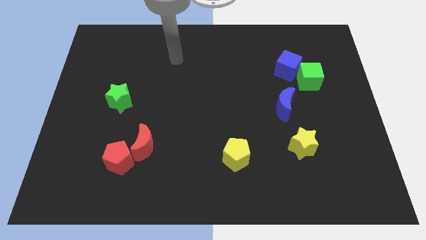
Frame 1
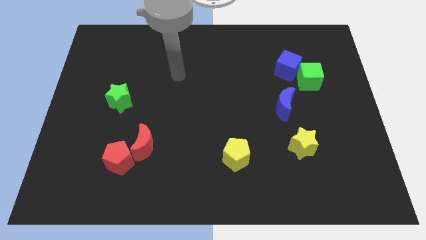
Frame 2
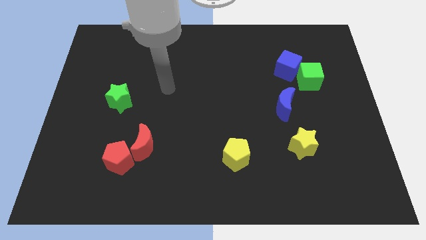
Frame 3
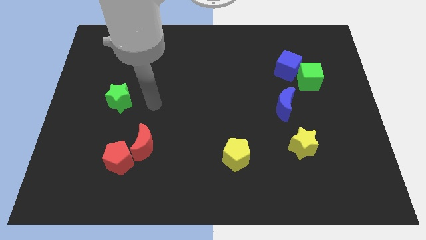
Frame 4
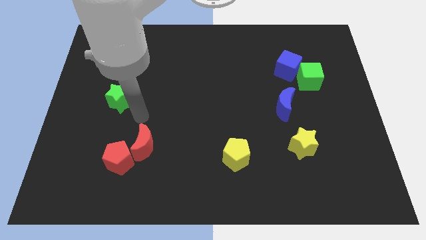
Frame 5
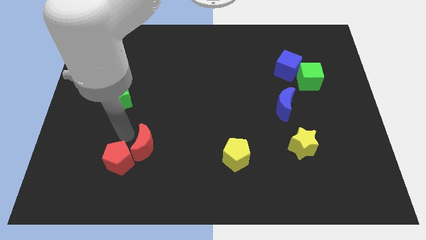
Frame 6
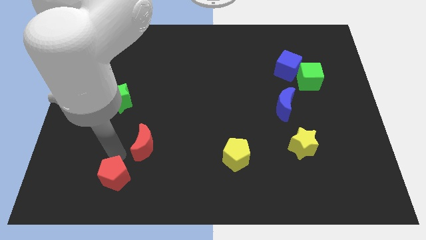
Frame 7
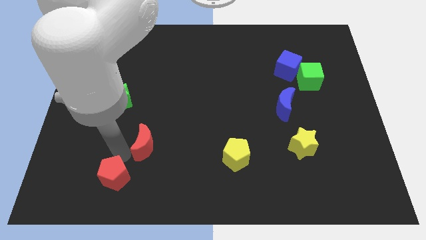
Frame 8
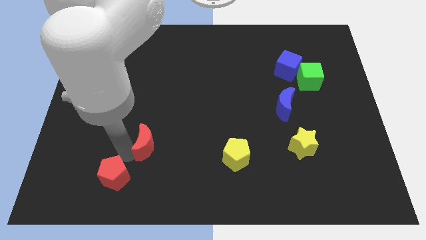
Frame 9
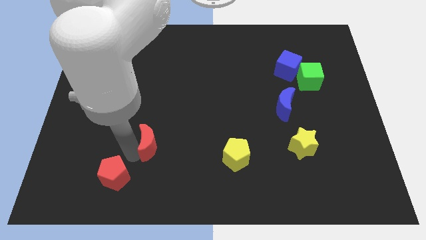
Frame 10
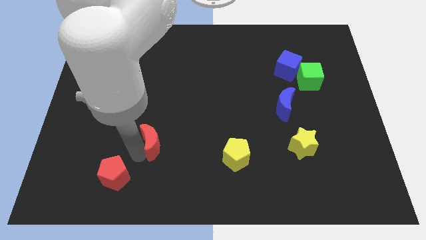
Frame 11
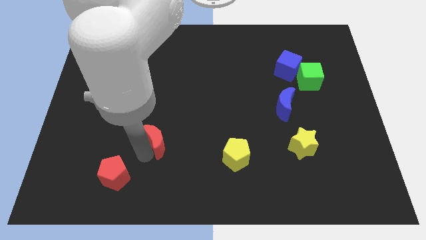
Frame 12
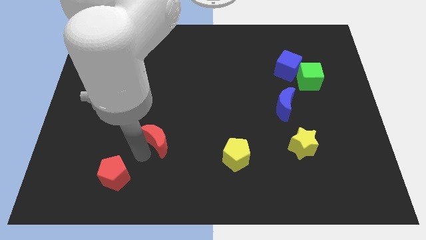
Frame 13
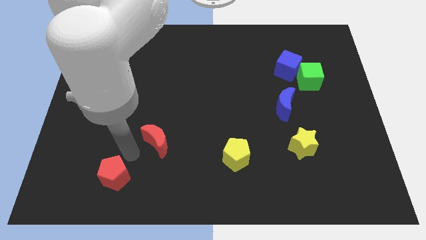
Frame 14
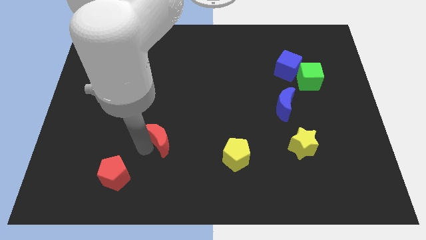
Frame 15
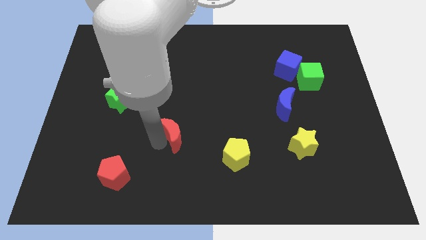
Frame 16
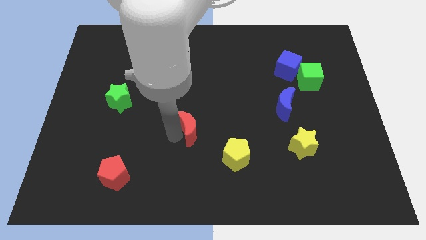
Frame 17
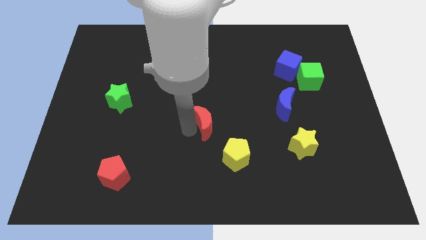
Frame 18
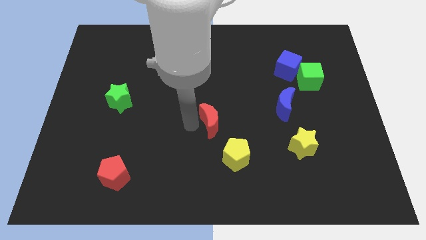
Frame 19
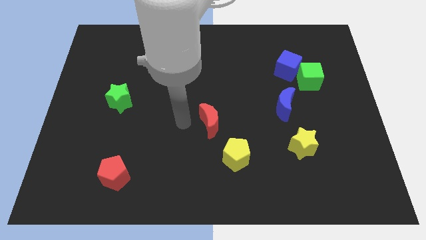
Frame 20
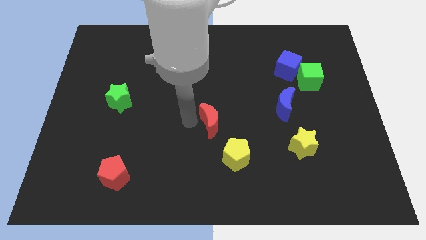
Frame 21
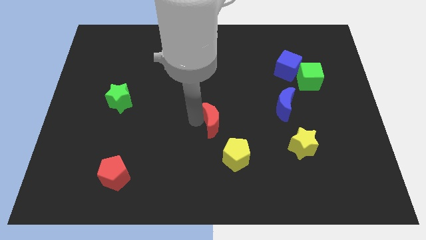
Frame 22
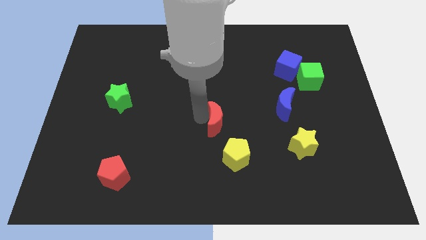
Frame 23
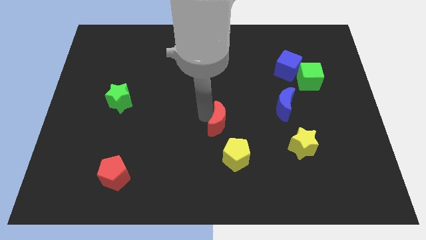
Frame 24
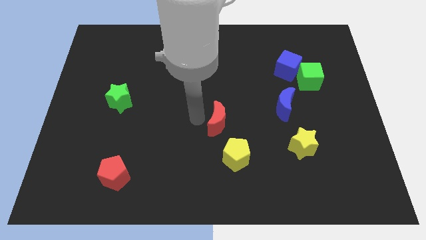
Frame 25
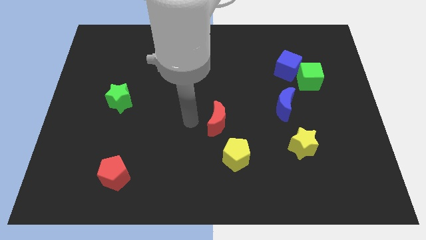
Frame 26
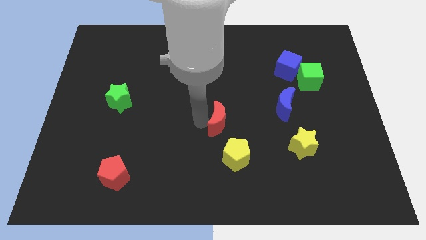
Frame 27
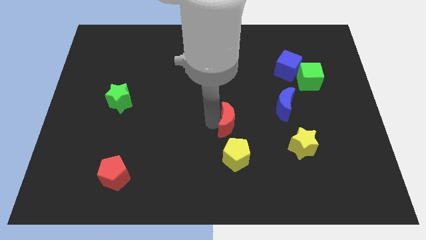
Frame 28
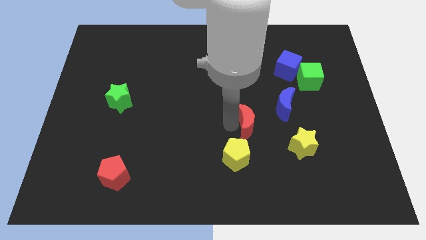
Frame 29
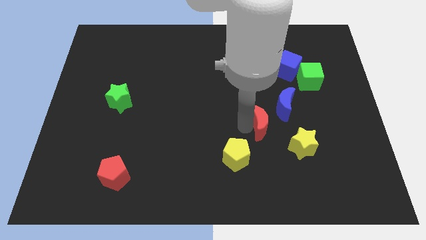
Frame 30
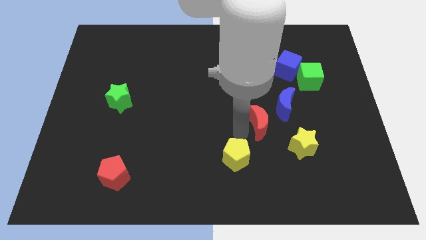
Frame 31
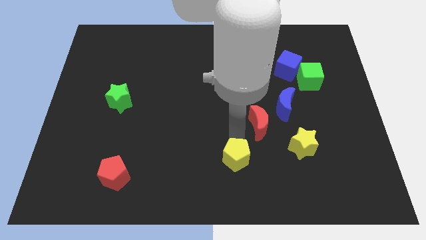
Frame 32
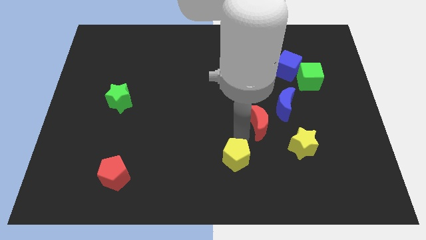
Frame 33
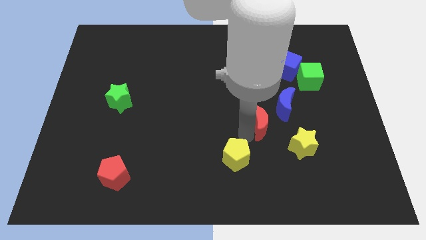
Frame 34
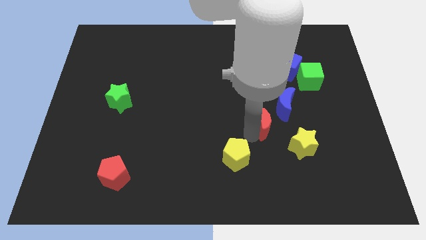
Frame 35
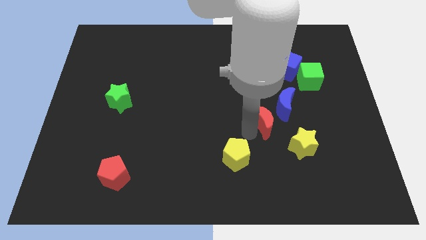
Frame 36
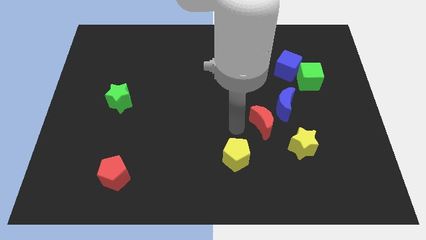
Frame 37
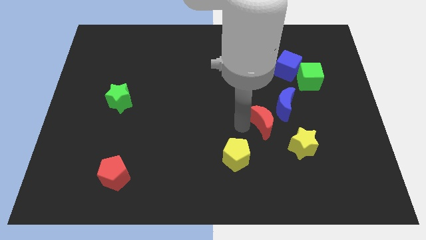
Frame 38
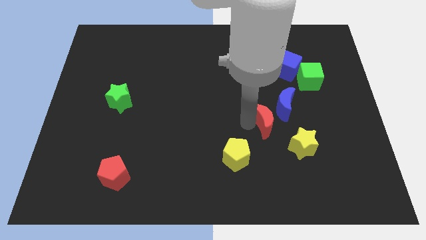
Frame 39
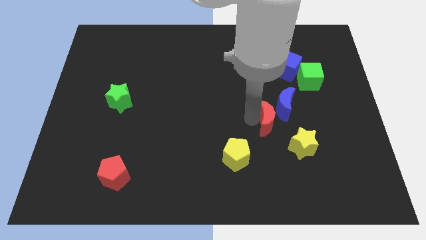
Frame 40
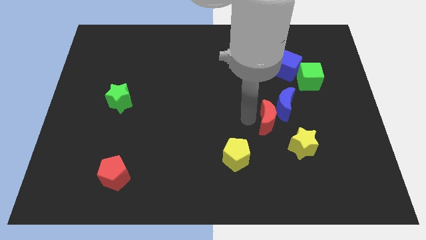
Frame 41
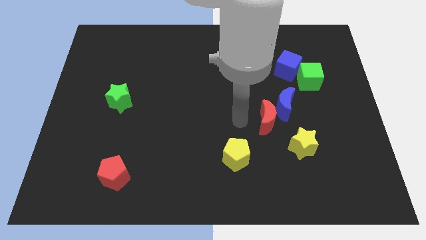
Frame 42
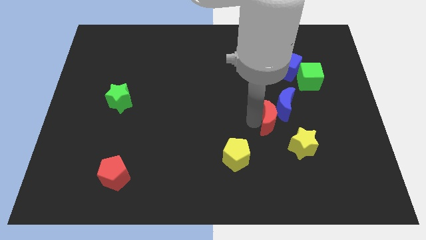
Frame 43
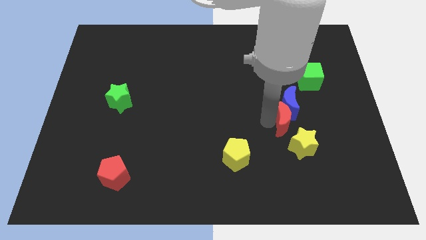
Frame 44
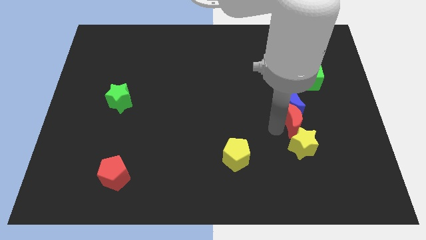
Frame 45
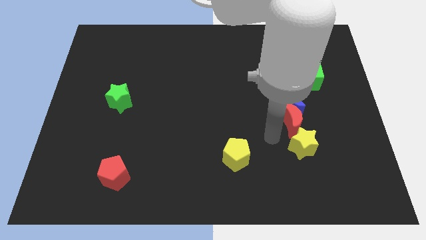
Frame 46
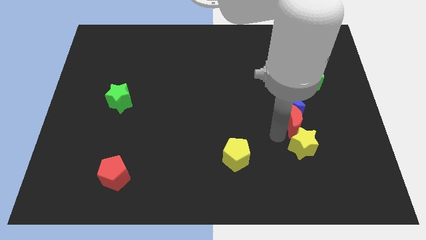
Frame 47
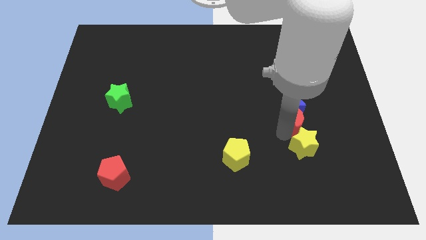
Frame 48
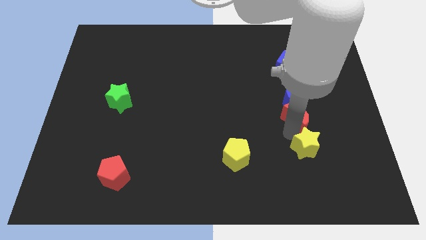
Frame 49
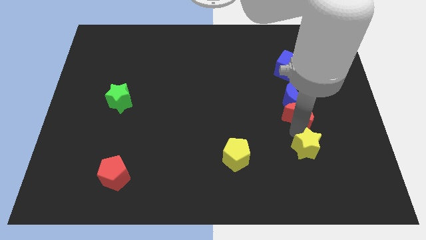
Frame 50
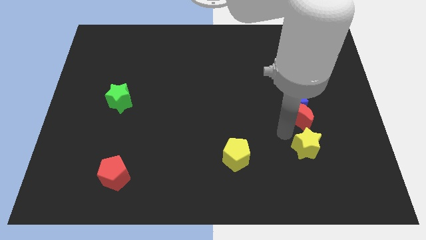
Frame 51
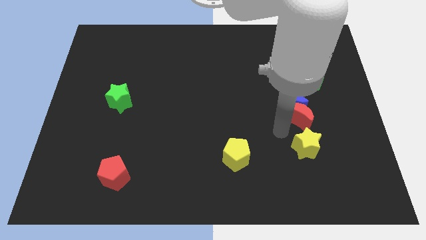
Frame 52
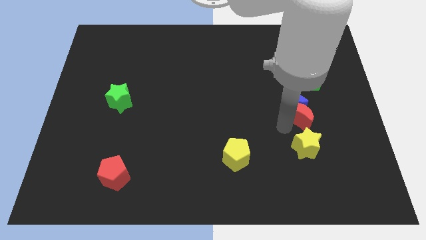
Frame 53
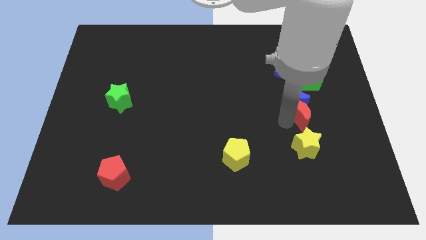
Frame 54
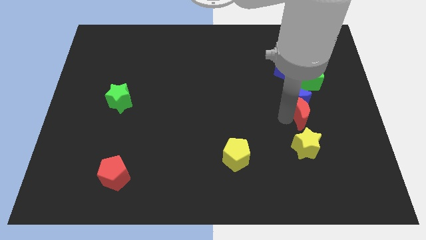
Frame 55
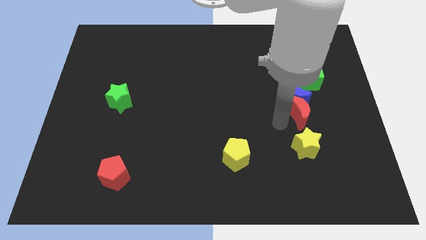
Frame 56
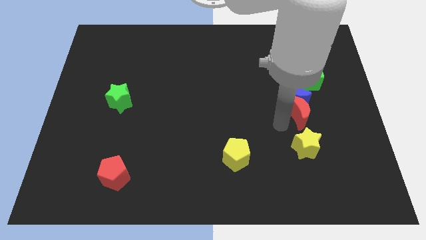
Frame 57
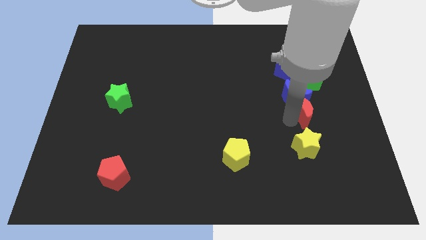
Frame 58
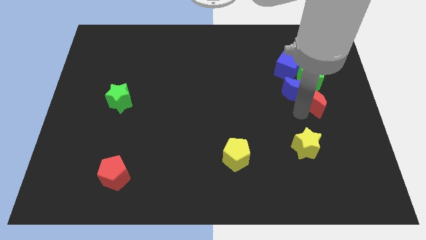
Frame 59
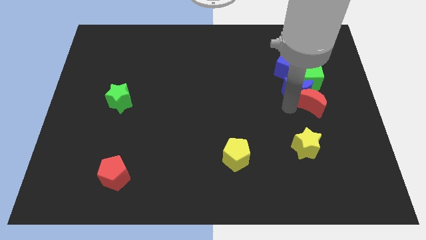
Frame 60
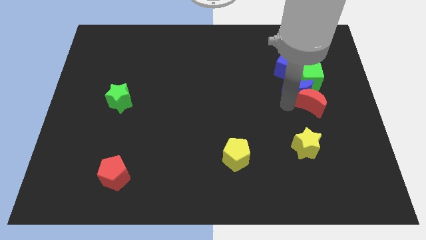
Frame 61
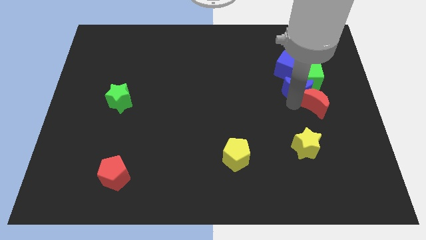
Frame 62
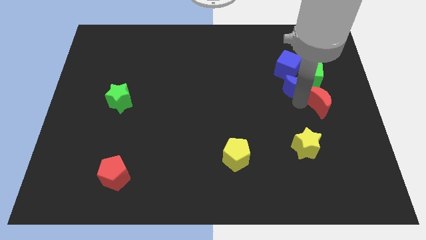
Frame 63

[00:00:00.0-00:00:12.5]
push the red moon to the center right

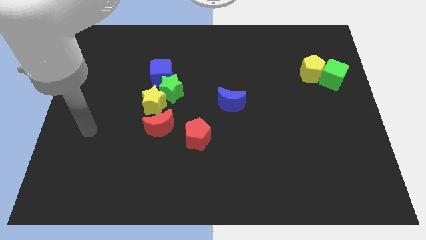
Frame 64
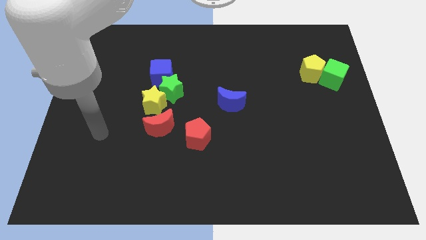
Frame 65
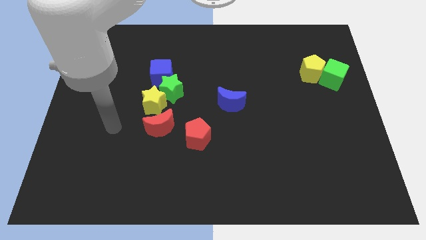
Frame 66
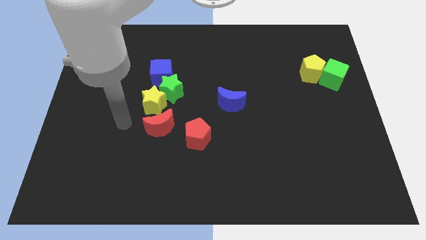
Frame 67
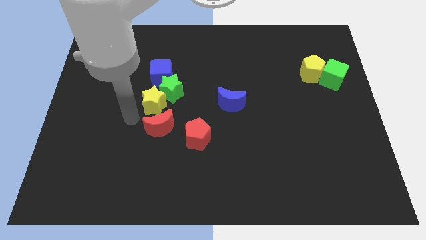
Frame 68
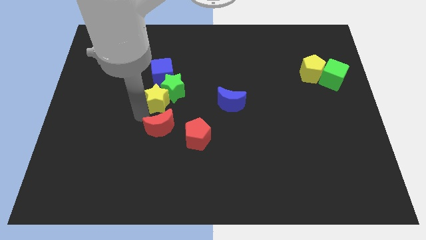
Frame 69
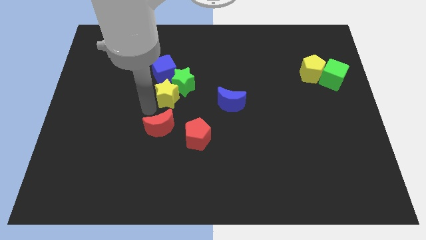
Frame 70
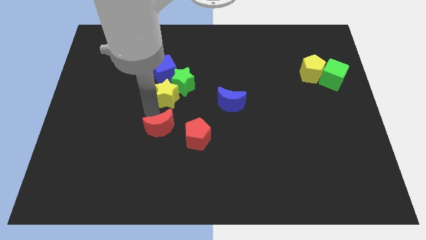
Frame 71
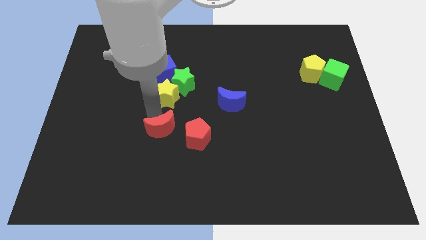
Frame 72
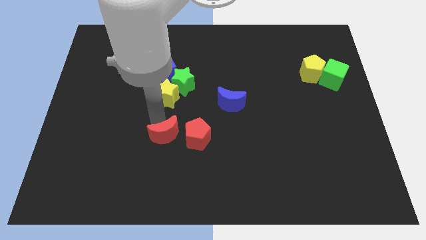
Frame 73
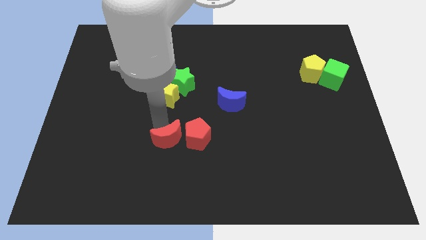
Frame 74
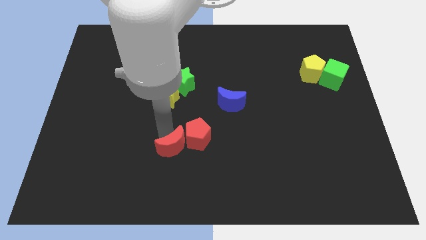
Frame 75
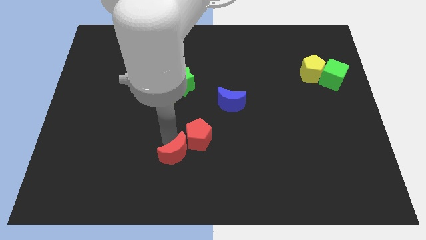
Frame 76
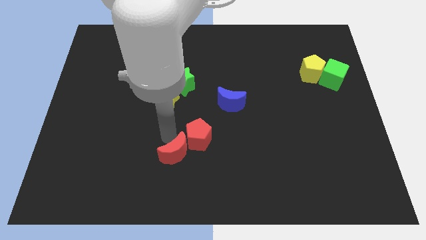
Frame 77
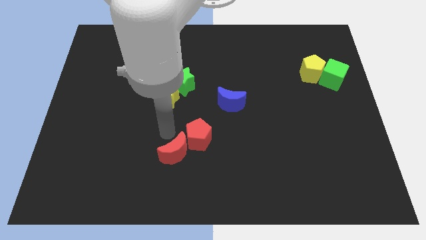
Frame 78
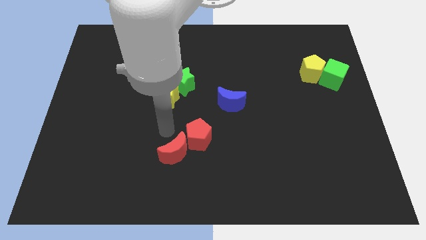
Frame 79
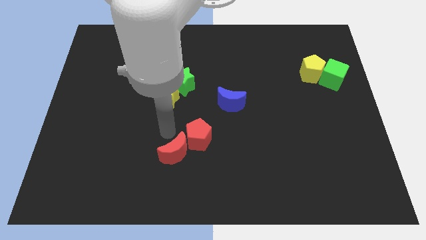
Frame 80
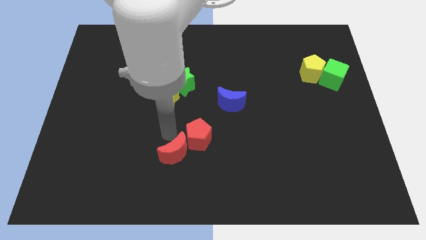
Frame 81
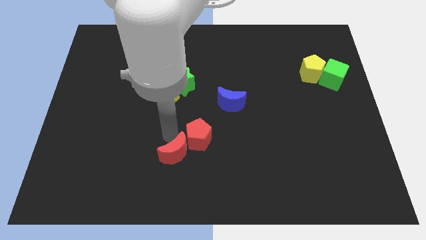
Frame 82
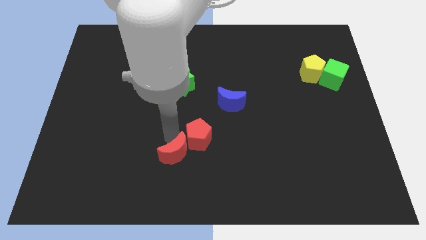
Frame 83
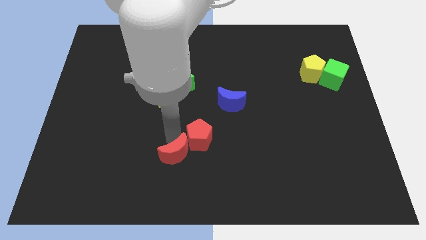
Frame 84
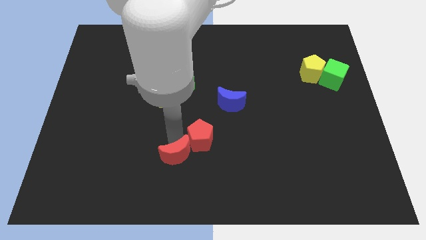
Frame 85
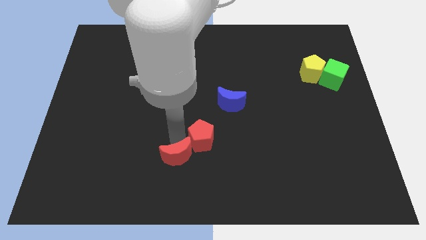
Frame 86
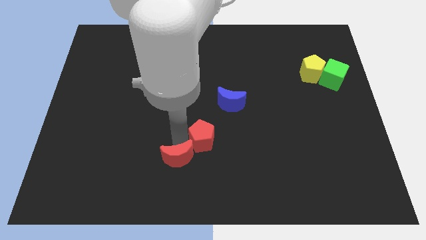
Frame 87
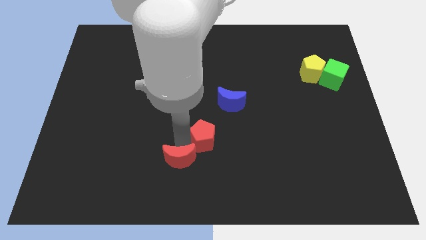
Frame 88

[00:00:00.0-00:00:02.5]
move the red moon to the bottom
